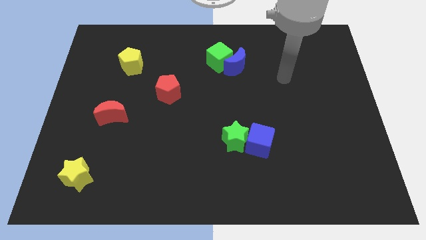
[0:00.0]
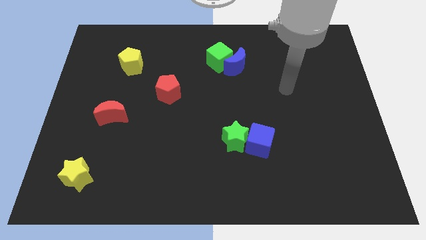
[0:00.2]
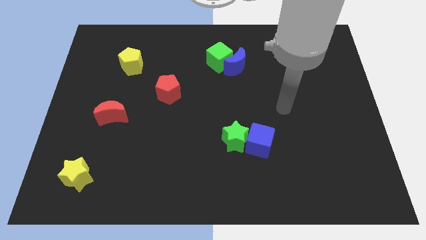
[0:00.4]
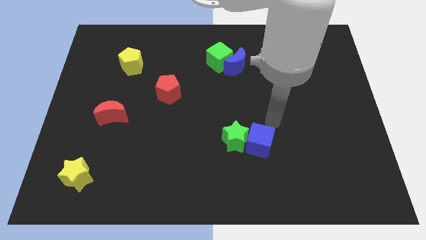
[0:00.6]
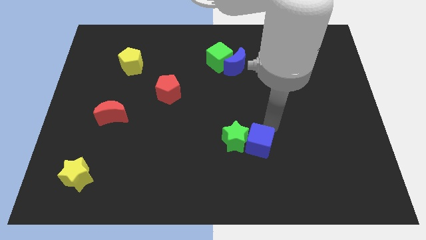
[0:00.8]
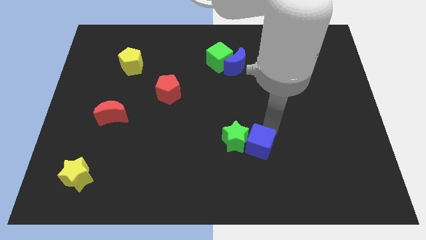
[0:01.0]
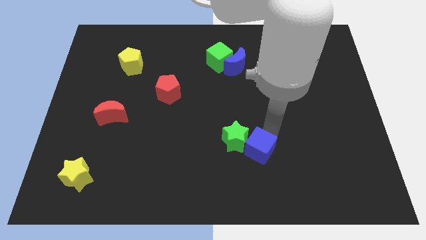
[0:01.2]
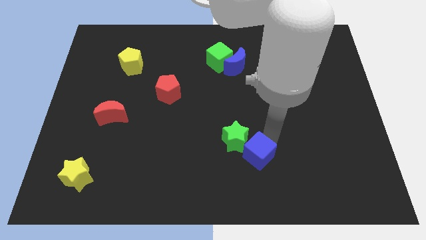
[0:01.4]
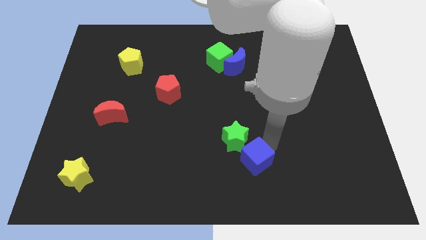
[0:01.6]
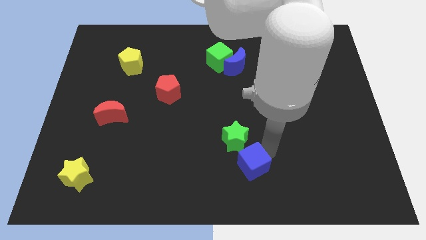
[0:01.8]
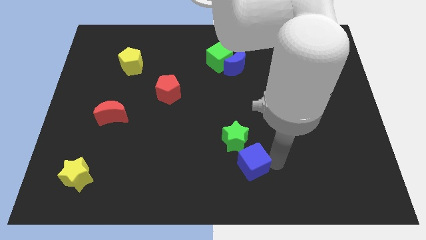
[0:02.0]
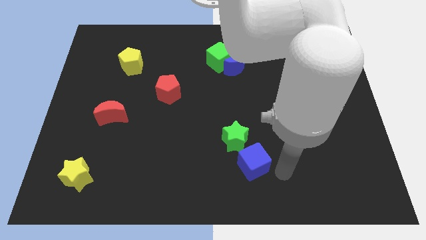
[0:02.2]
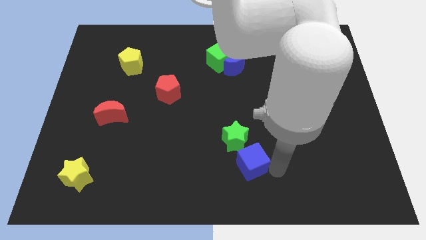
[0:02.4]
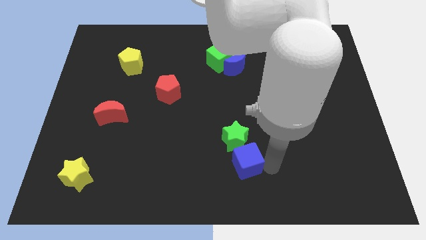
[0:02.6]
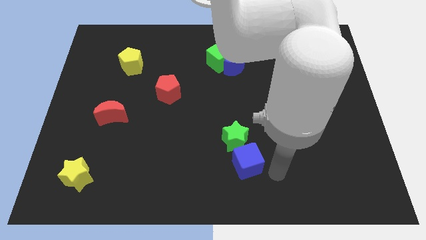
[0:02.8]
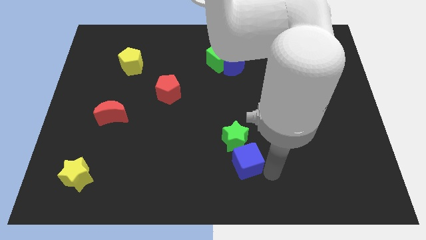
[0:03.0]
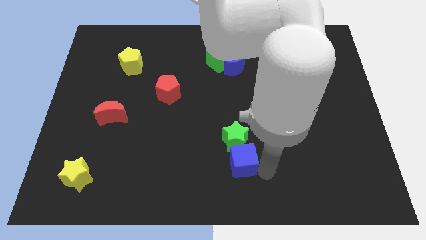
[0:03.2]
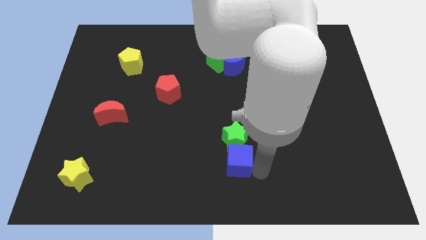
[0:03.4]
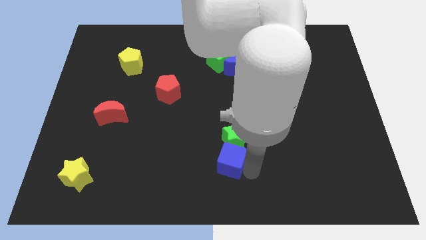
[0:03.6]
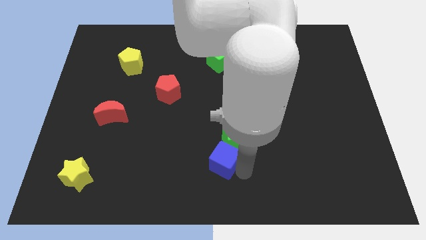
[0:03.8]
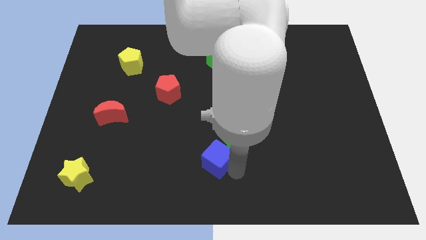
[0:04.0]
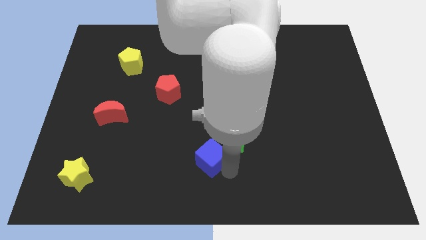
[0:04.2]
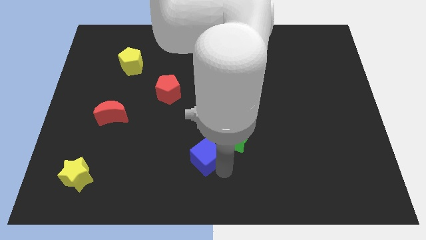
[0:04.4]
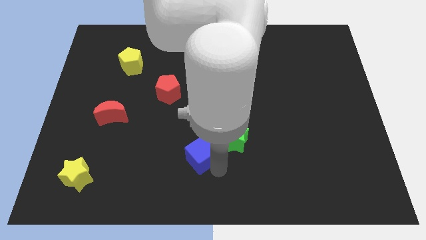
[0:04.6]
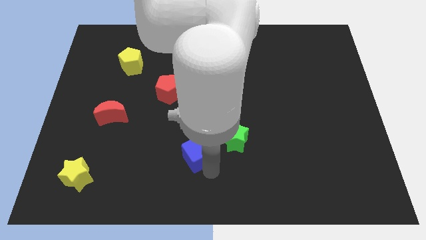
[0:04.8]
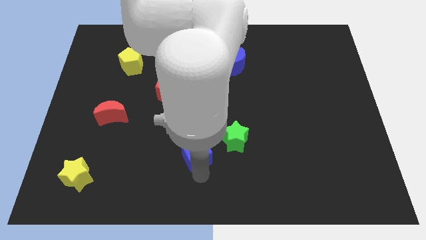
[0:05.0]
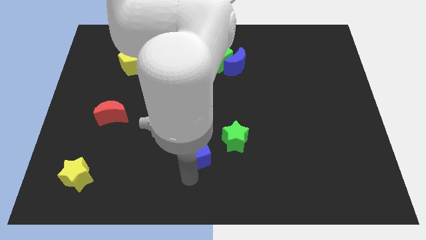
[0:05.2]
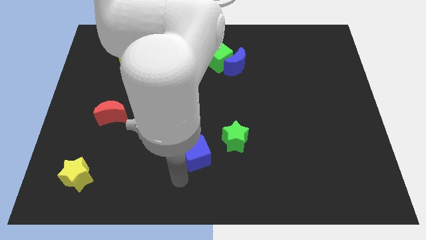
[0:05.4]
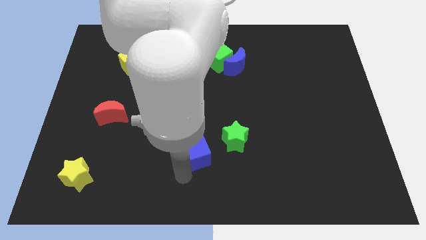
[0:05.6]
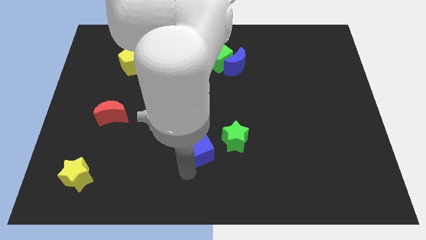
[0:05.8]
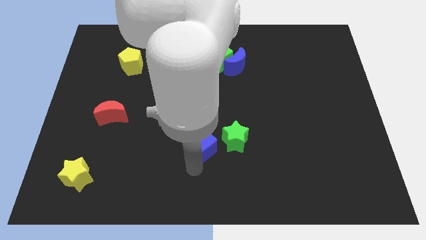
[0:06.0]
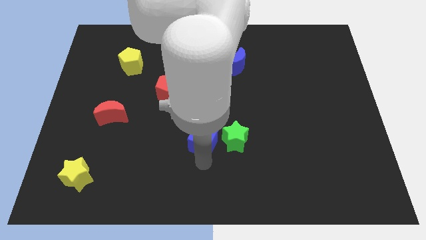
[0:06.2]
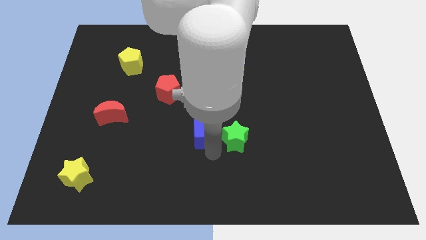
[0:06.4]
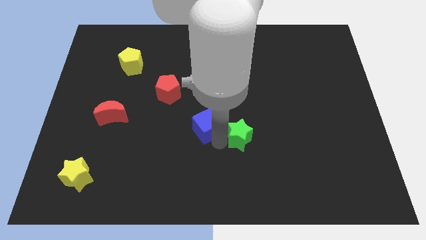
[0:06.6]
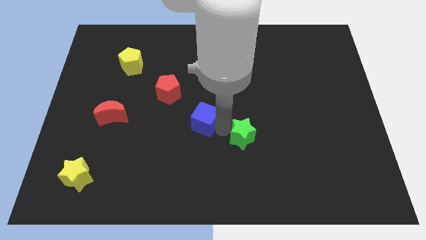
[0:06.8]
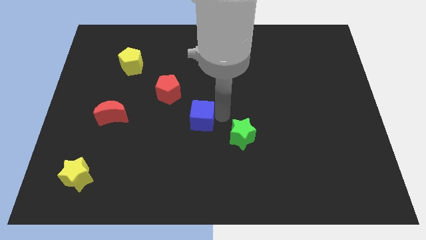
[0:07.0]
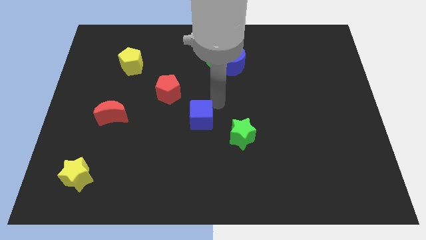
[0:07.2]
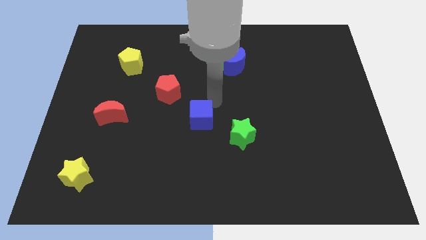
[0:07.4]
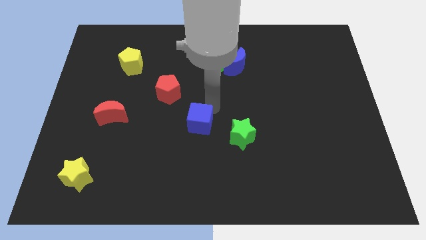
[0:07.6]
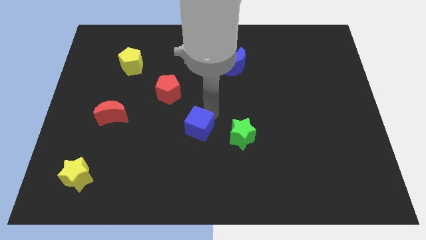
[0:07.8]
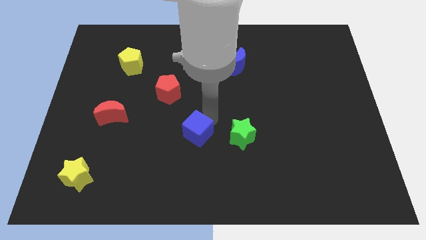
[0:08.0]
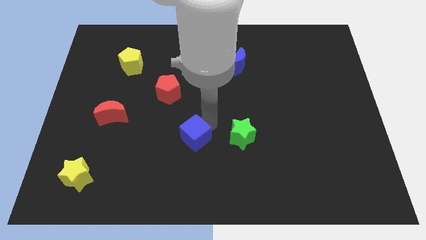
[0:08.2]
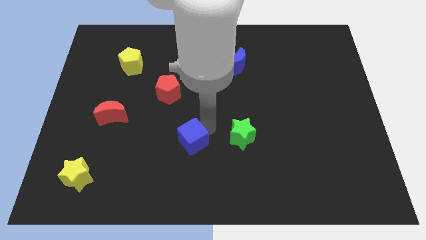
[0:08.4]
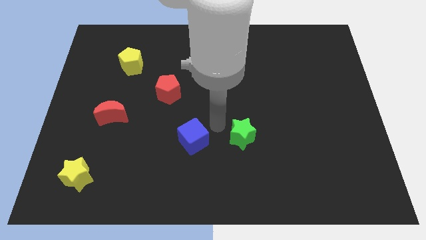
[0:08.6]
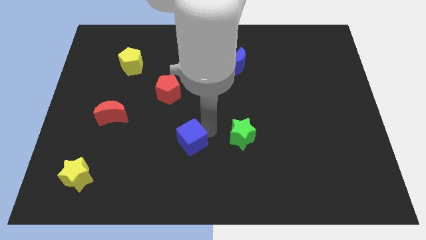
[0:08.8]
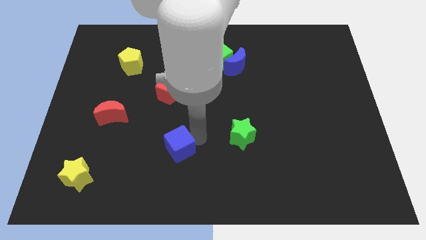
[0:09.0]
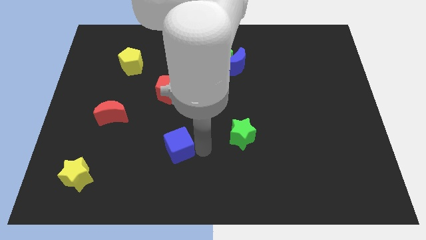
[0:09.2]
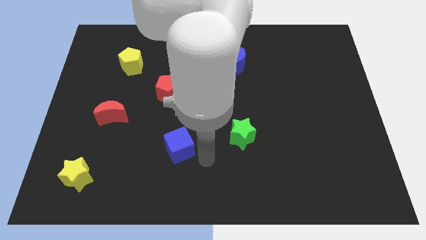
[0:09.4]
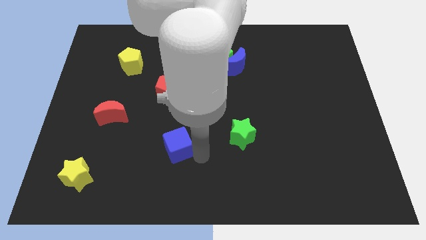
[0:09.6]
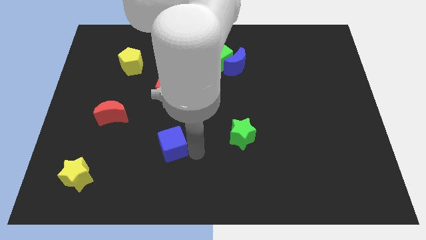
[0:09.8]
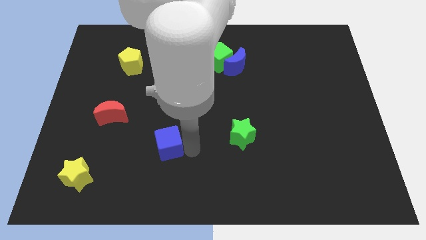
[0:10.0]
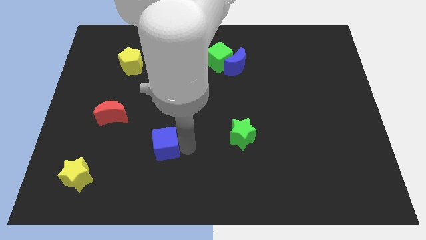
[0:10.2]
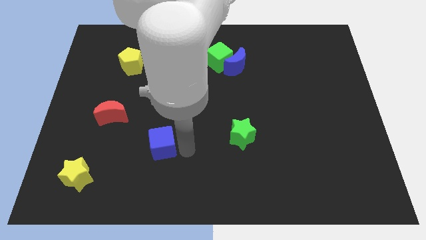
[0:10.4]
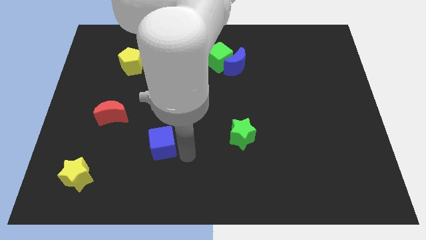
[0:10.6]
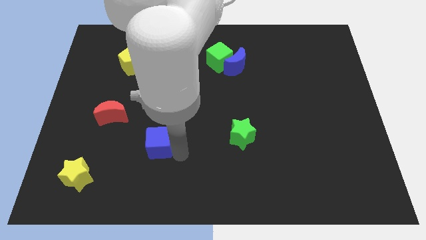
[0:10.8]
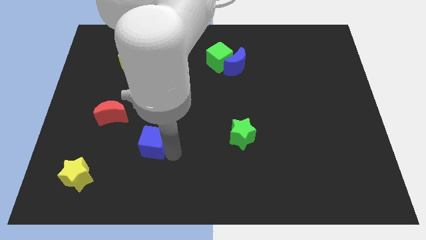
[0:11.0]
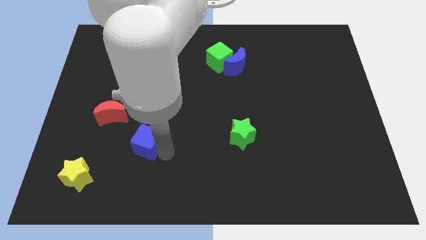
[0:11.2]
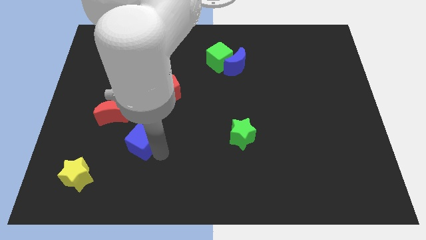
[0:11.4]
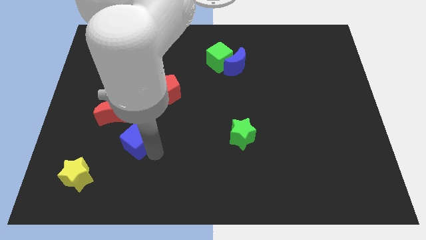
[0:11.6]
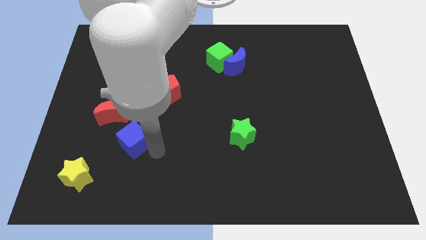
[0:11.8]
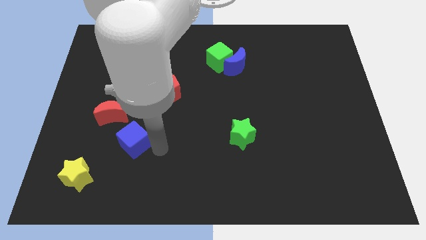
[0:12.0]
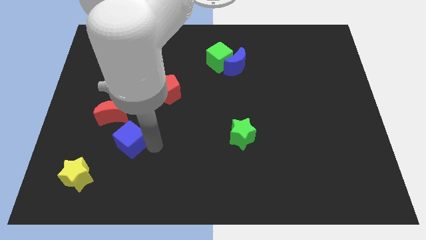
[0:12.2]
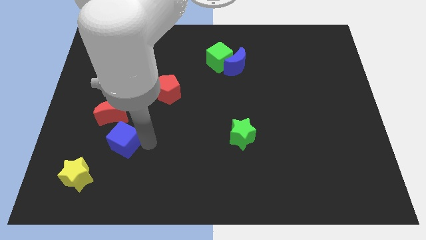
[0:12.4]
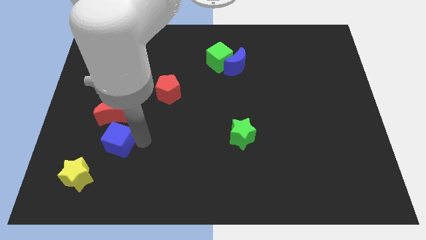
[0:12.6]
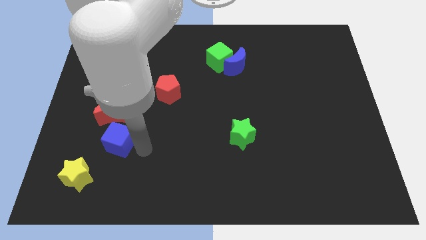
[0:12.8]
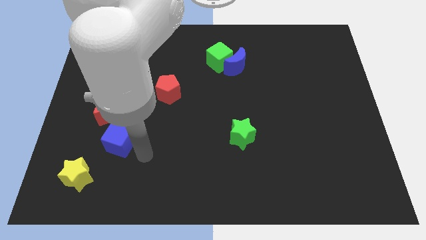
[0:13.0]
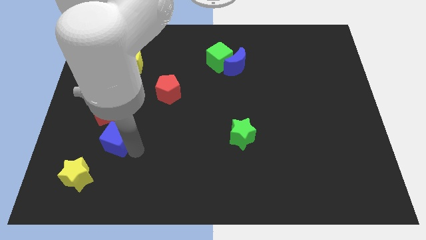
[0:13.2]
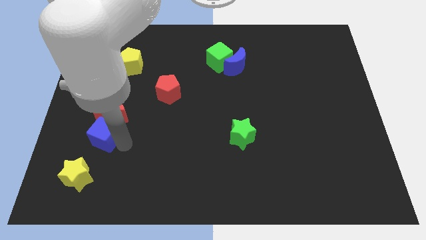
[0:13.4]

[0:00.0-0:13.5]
push the blue cube to the top of the yellow star
